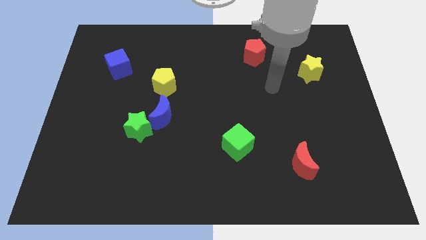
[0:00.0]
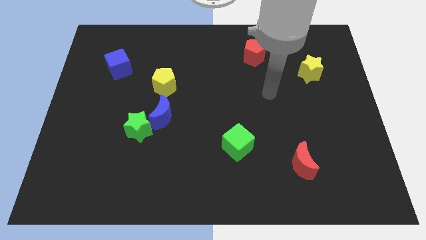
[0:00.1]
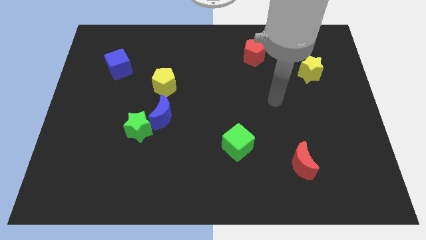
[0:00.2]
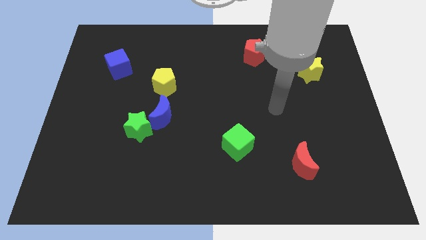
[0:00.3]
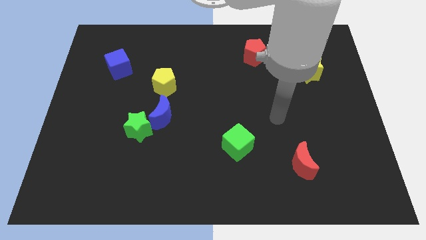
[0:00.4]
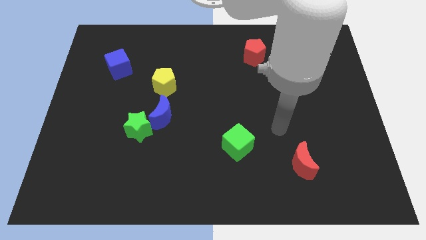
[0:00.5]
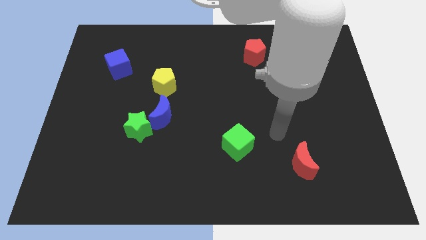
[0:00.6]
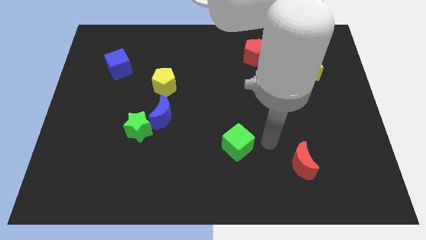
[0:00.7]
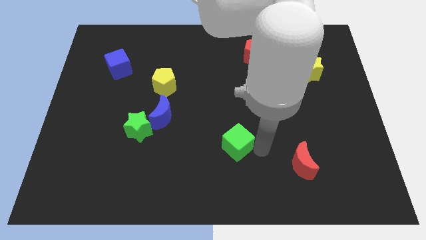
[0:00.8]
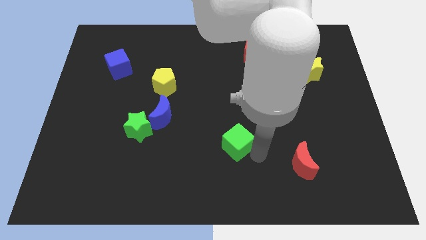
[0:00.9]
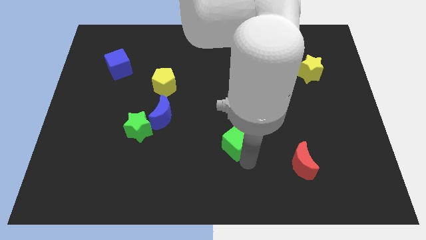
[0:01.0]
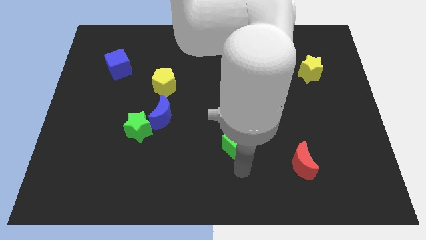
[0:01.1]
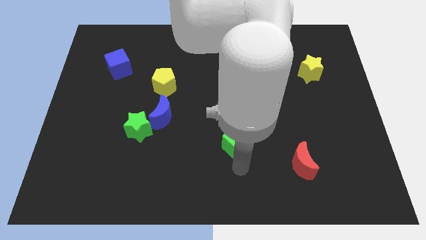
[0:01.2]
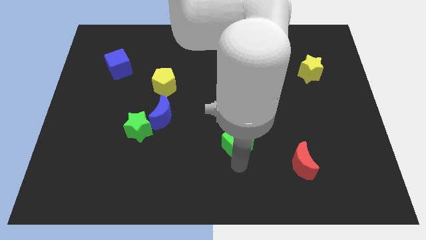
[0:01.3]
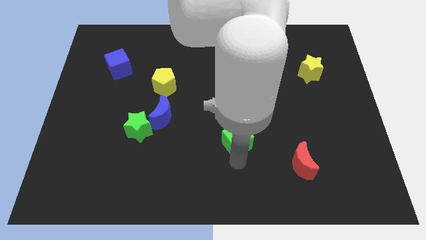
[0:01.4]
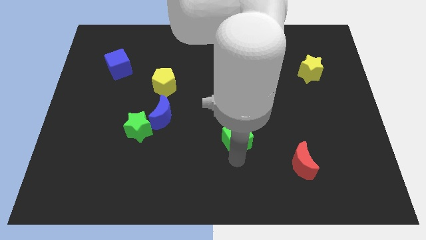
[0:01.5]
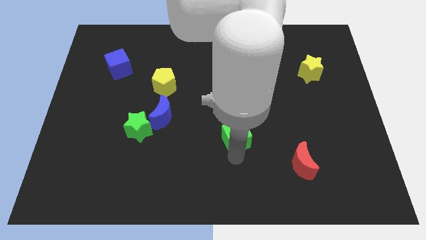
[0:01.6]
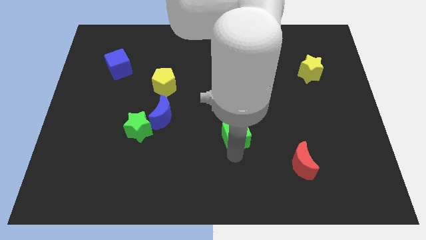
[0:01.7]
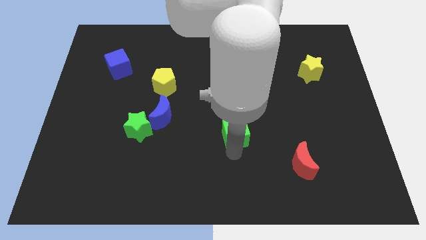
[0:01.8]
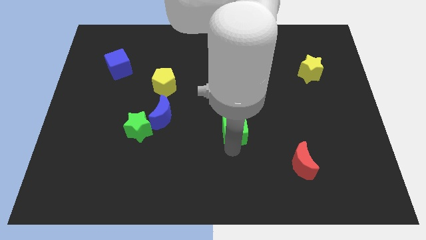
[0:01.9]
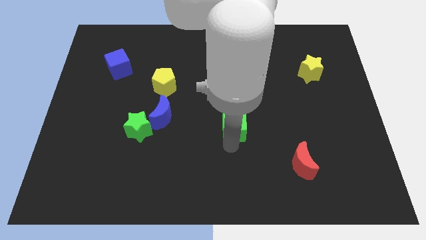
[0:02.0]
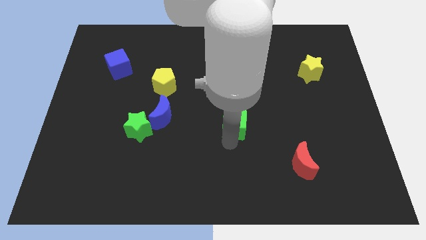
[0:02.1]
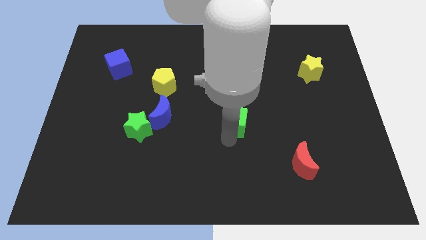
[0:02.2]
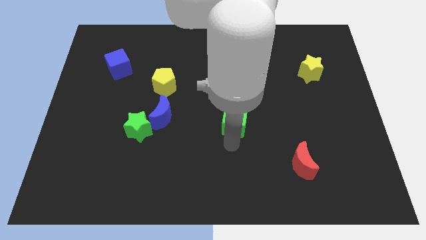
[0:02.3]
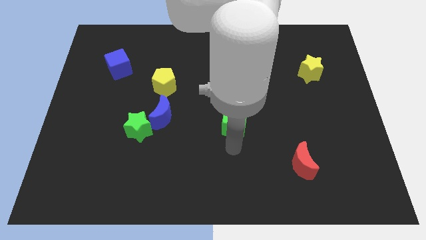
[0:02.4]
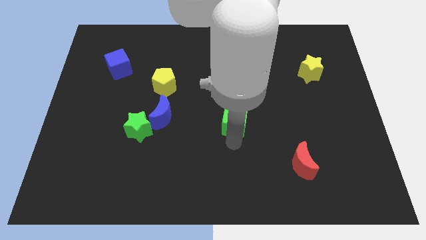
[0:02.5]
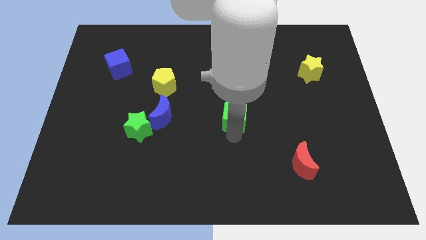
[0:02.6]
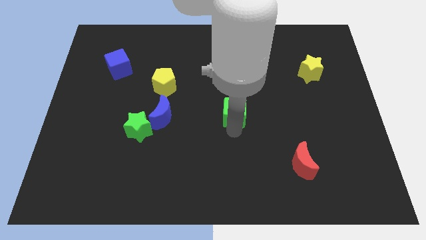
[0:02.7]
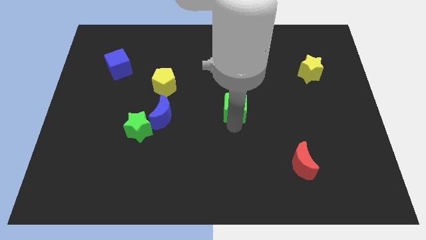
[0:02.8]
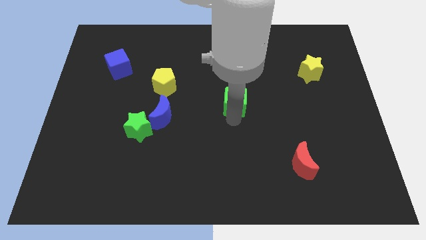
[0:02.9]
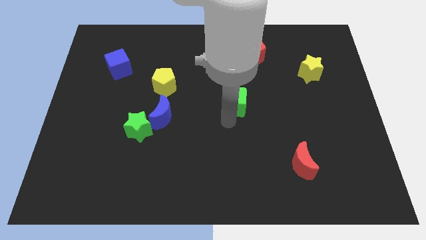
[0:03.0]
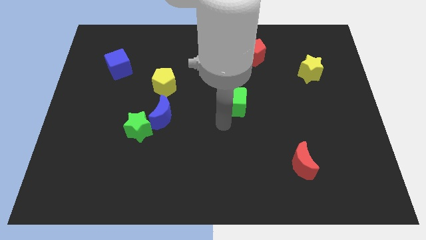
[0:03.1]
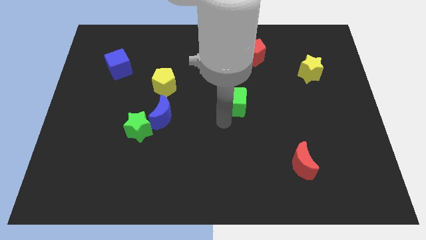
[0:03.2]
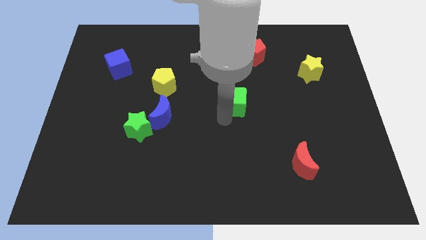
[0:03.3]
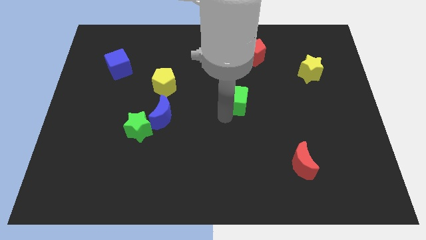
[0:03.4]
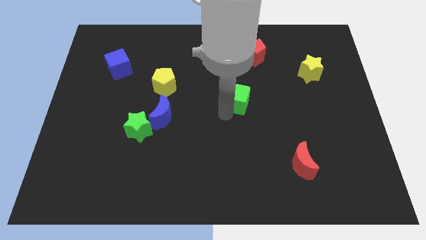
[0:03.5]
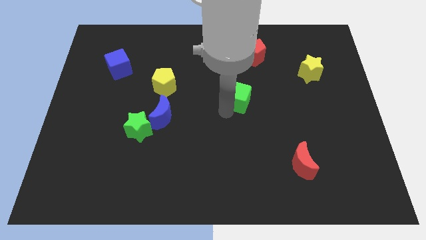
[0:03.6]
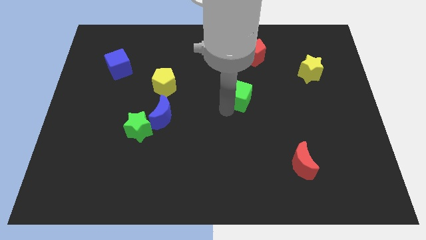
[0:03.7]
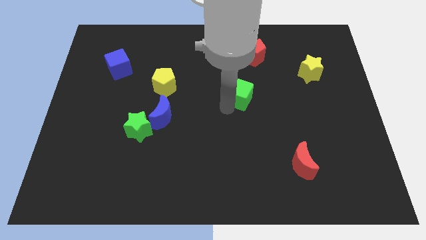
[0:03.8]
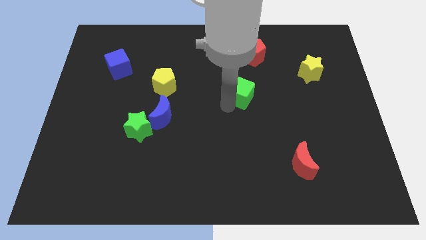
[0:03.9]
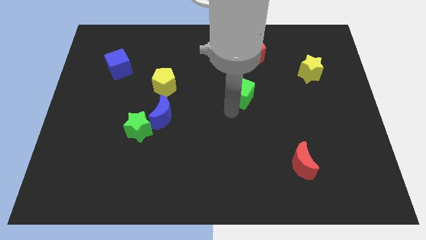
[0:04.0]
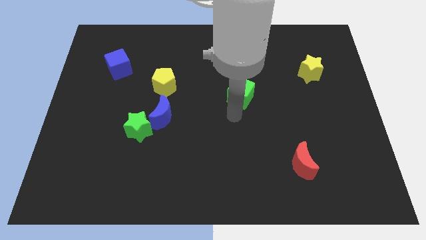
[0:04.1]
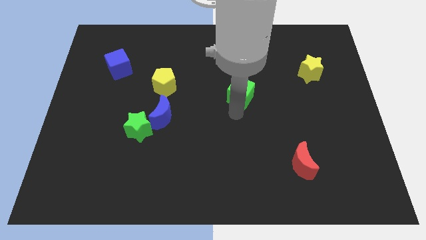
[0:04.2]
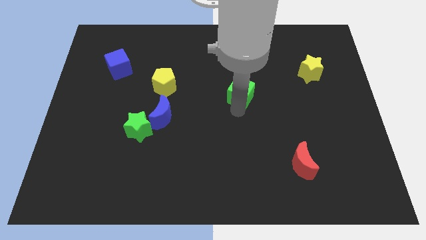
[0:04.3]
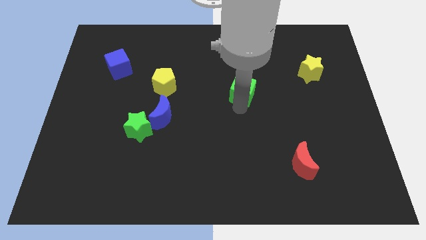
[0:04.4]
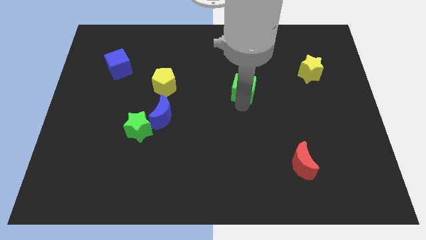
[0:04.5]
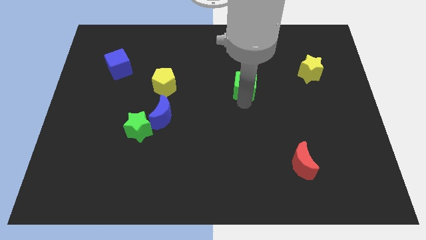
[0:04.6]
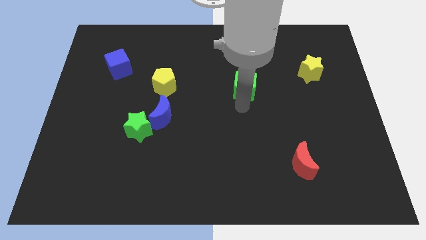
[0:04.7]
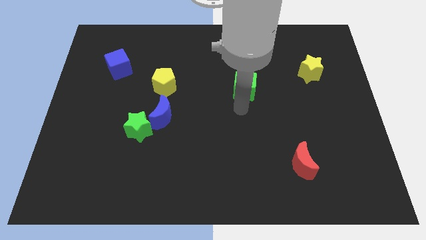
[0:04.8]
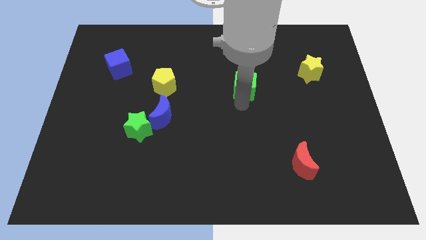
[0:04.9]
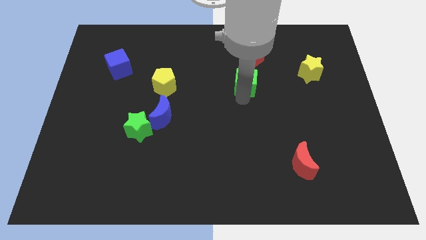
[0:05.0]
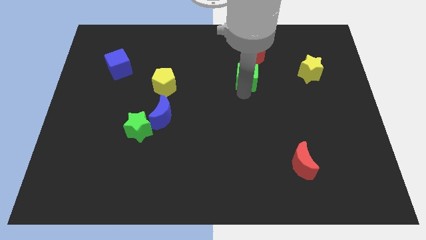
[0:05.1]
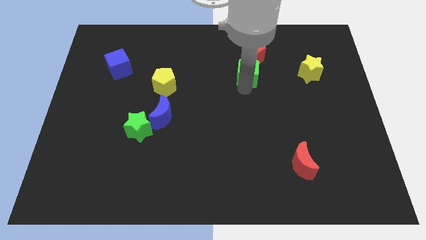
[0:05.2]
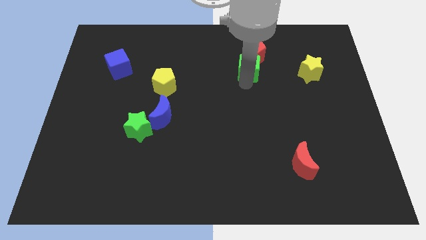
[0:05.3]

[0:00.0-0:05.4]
slide the green cube close to the red pentagon

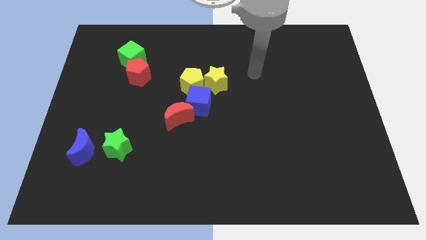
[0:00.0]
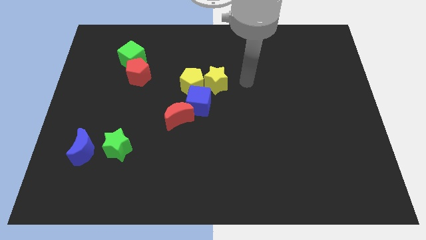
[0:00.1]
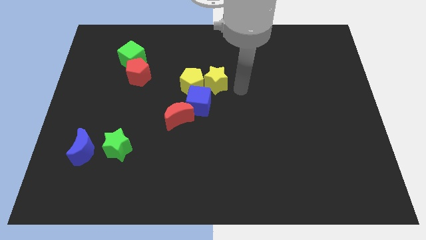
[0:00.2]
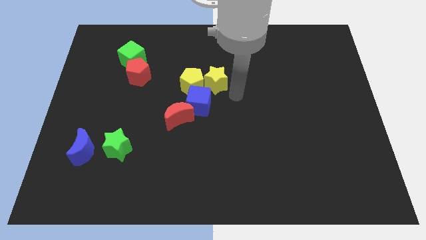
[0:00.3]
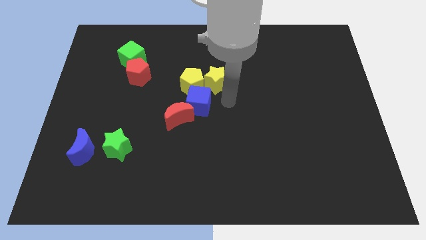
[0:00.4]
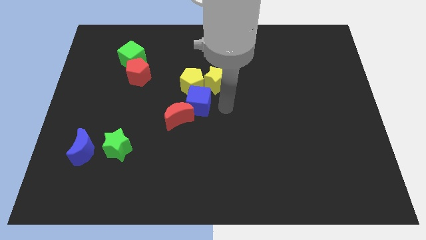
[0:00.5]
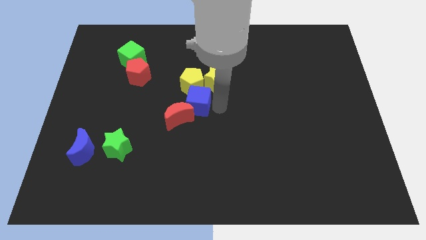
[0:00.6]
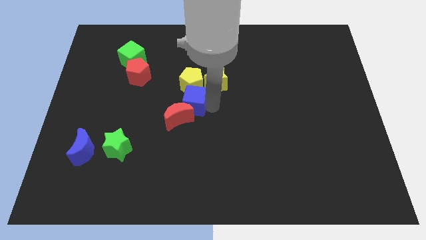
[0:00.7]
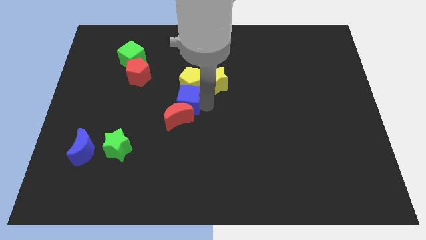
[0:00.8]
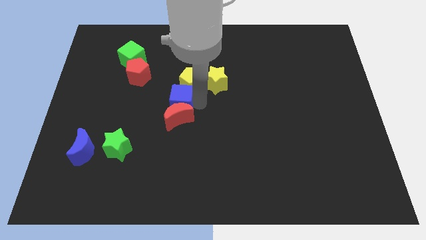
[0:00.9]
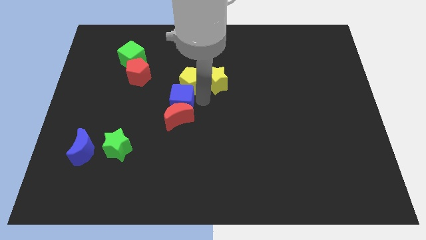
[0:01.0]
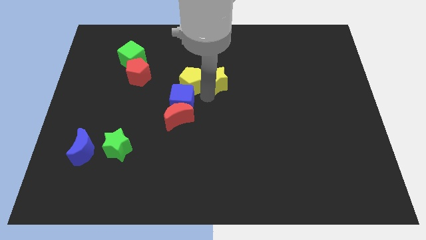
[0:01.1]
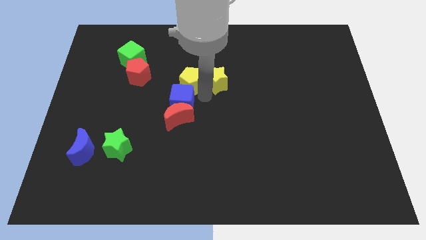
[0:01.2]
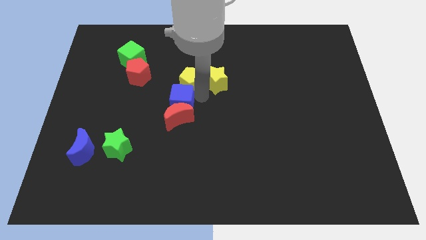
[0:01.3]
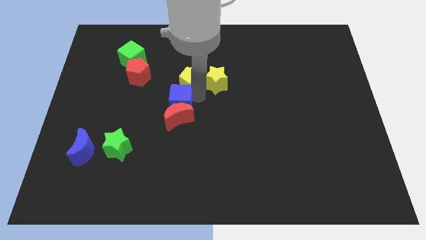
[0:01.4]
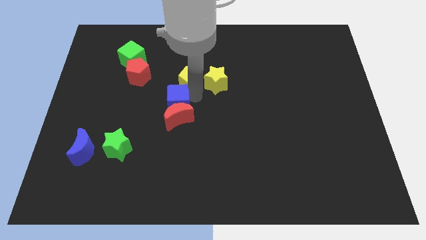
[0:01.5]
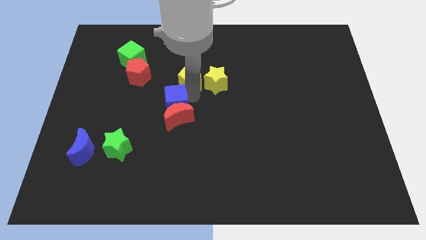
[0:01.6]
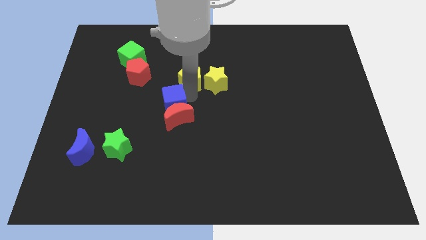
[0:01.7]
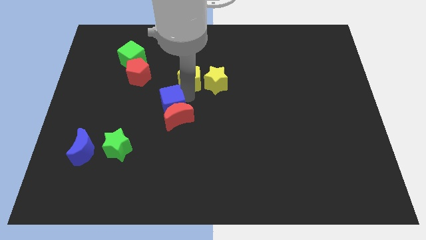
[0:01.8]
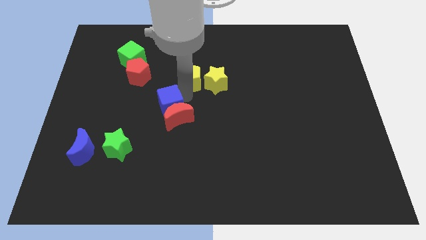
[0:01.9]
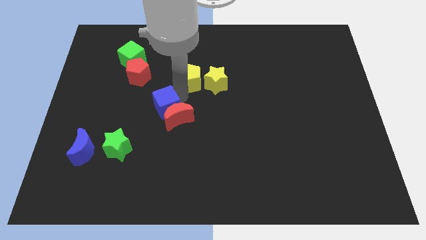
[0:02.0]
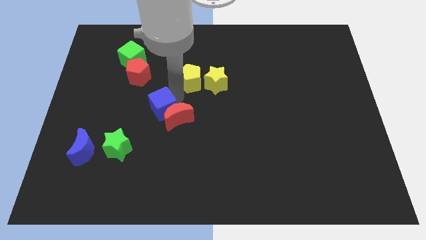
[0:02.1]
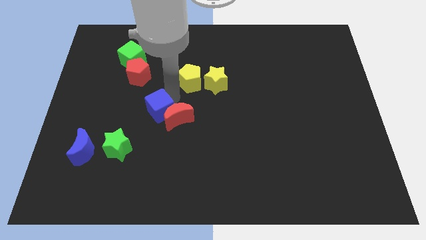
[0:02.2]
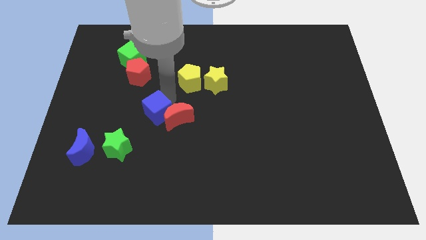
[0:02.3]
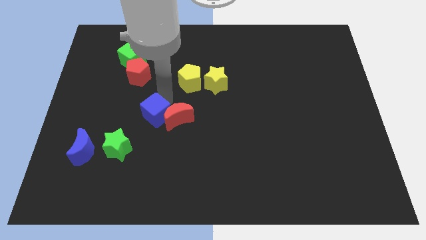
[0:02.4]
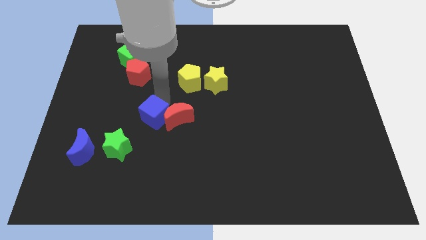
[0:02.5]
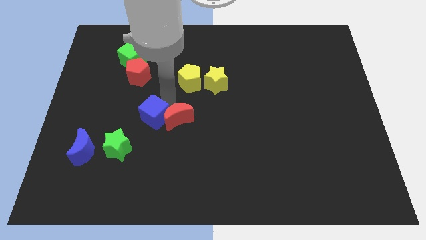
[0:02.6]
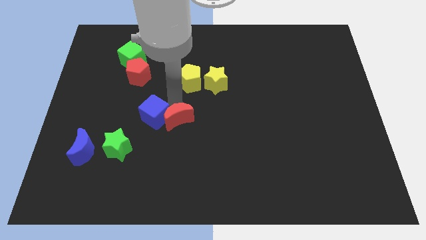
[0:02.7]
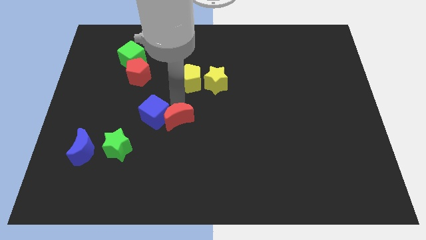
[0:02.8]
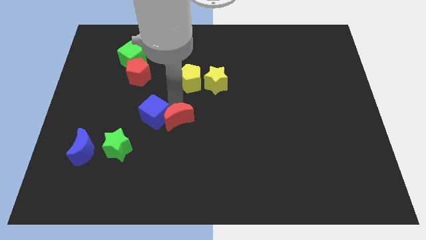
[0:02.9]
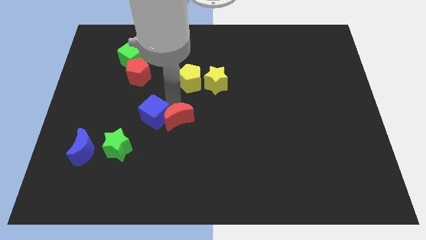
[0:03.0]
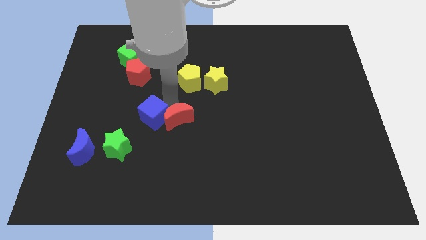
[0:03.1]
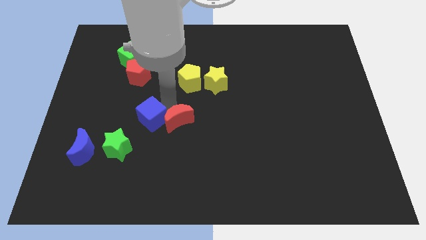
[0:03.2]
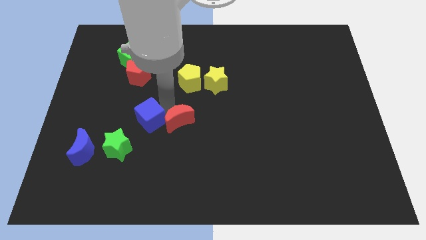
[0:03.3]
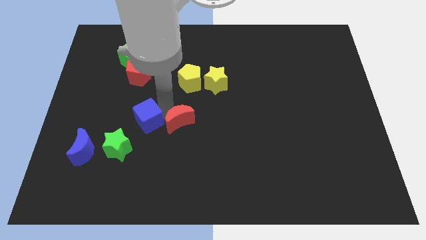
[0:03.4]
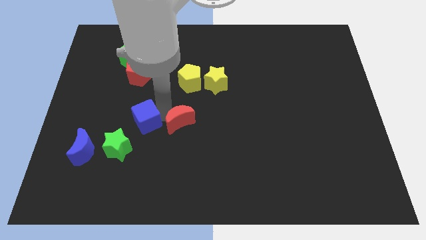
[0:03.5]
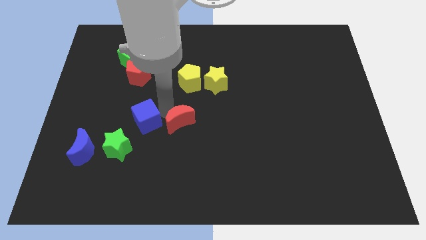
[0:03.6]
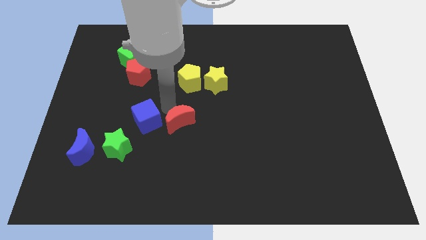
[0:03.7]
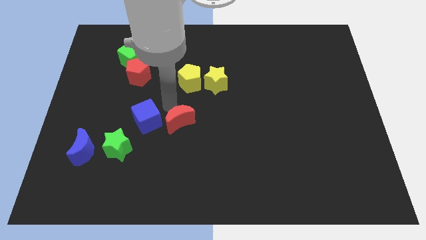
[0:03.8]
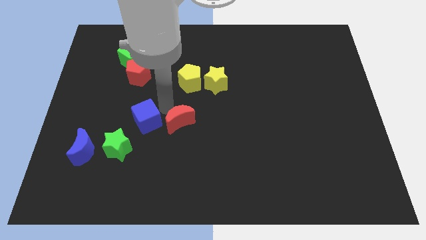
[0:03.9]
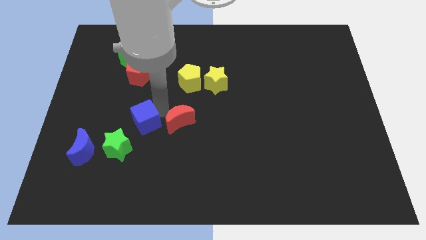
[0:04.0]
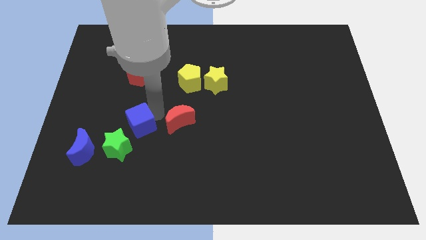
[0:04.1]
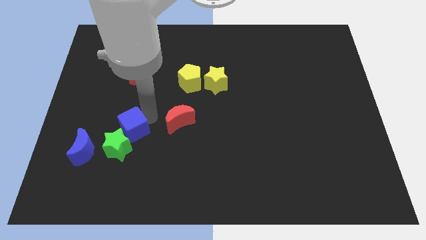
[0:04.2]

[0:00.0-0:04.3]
slide the blue cube close to the green star
